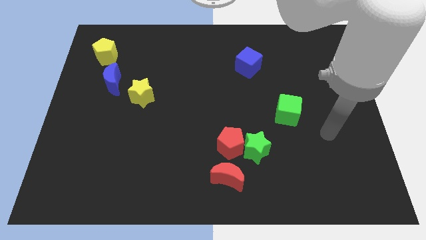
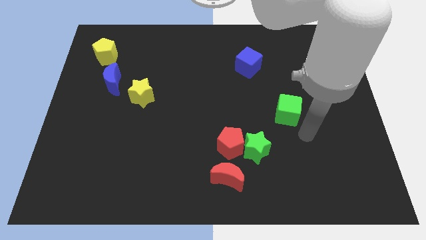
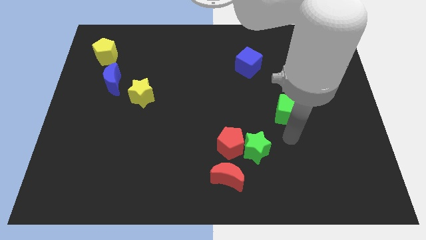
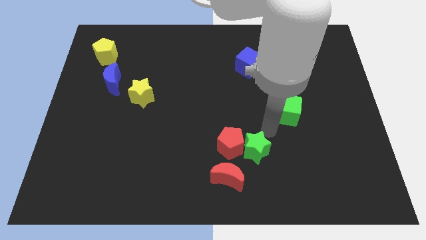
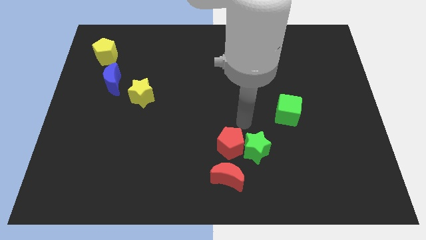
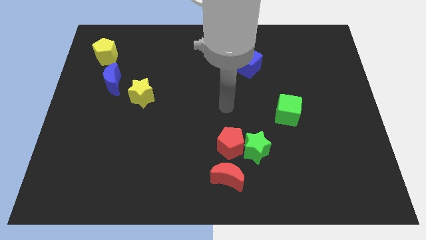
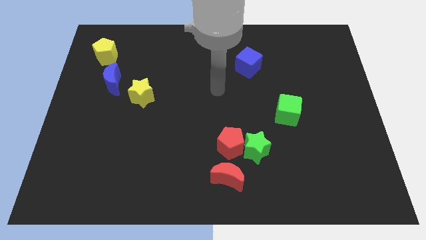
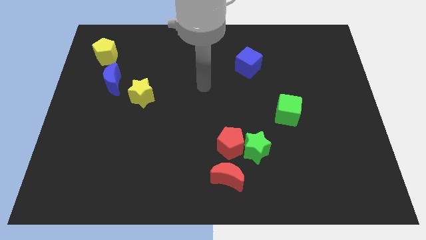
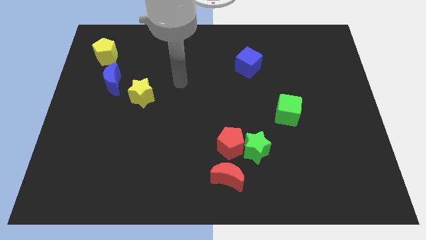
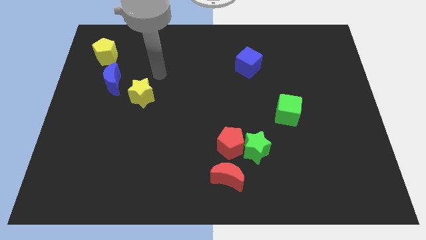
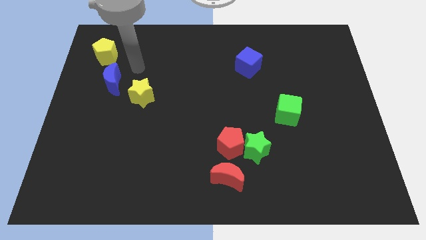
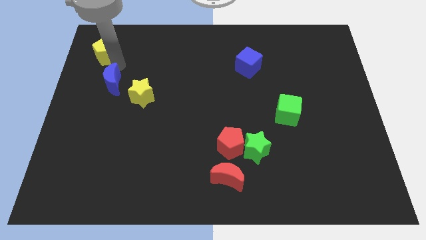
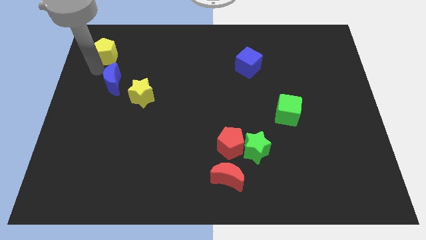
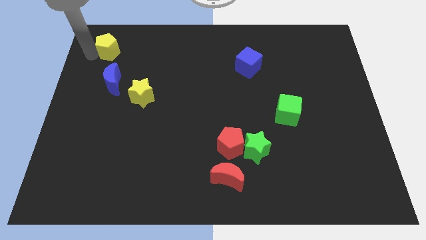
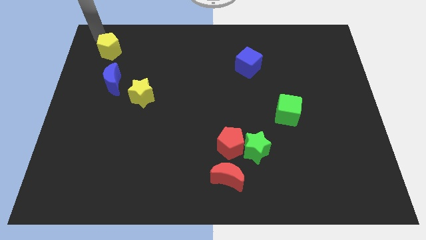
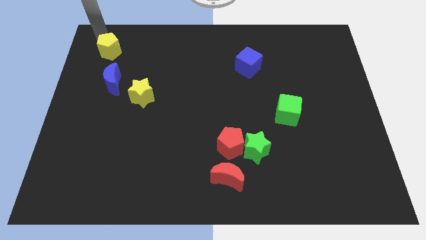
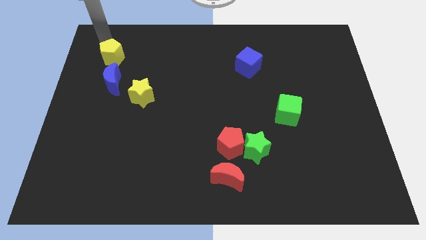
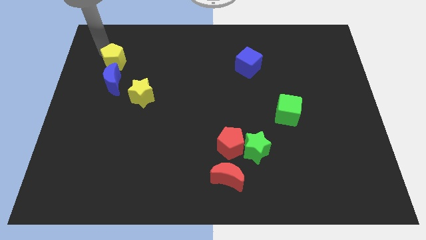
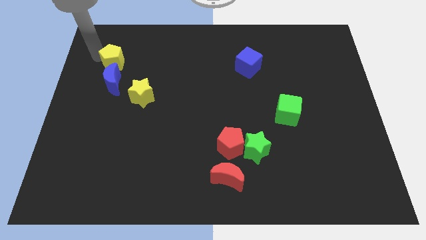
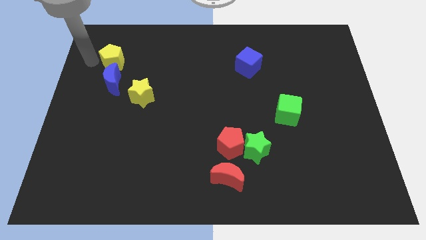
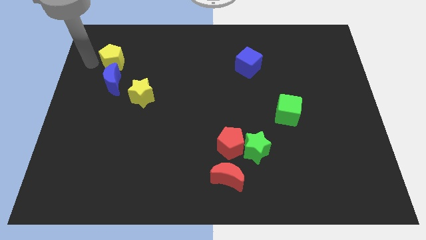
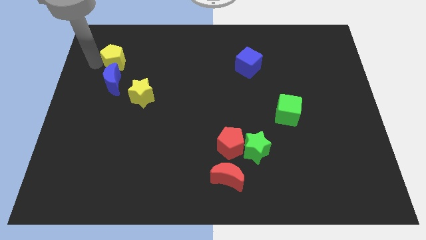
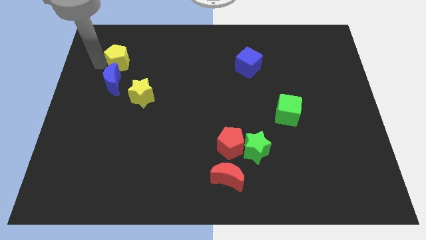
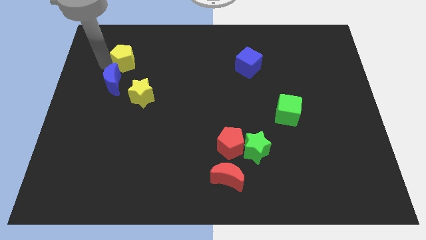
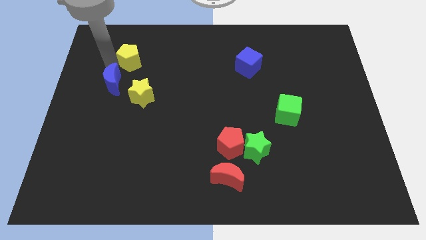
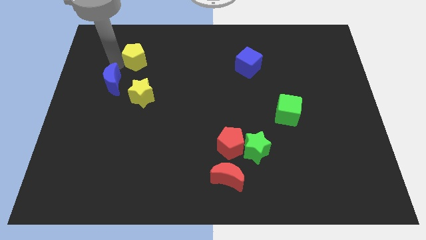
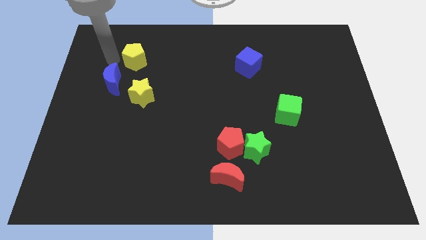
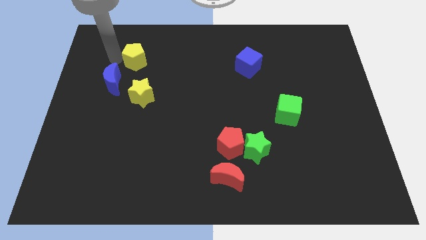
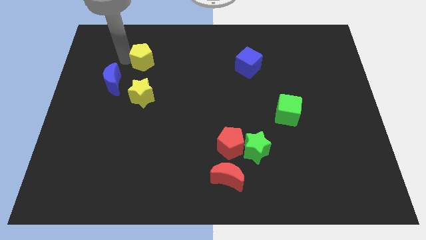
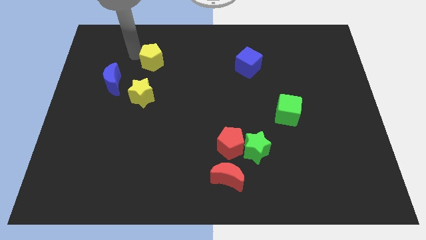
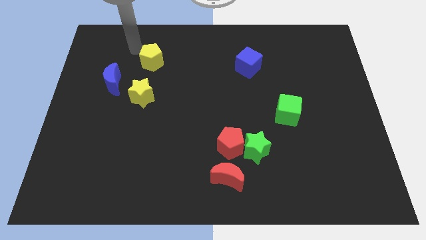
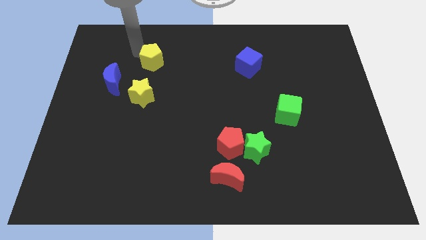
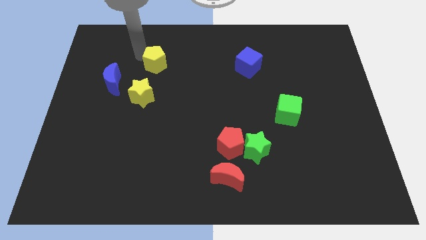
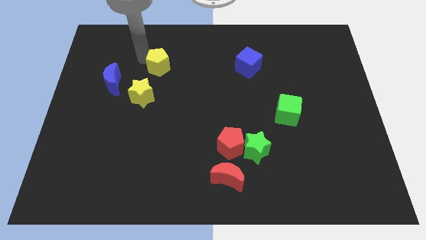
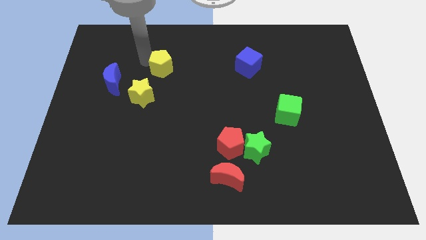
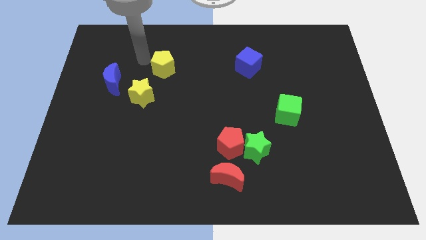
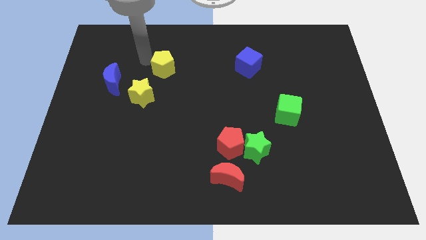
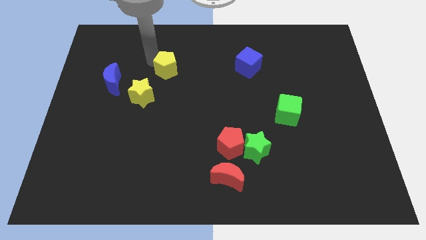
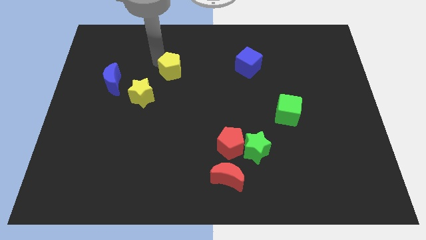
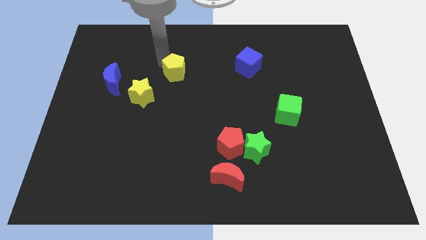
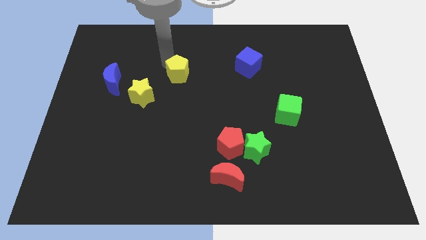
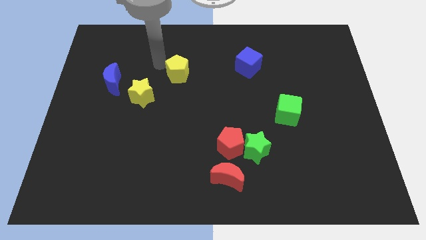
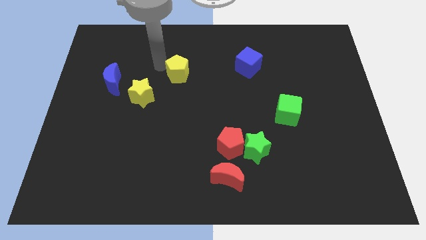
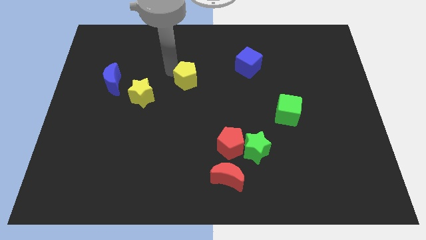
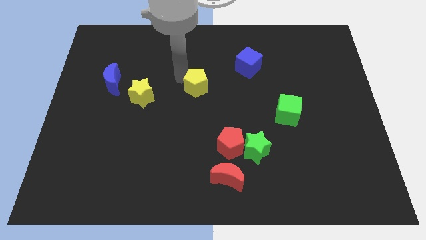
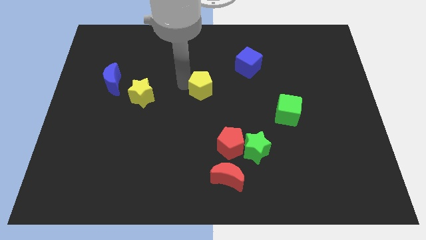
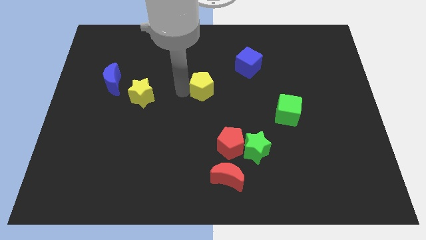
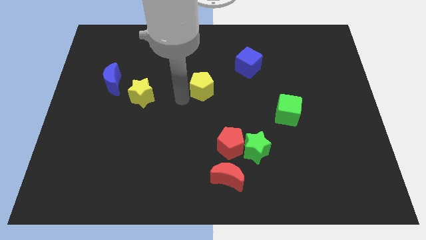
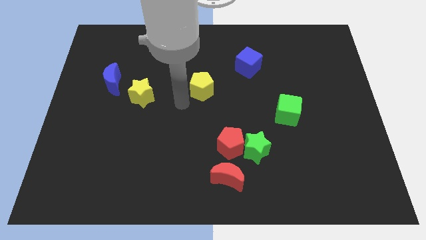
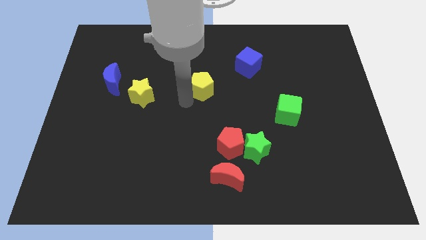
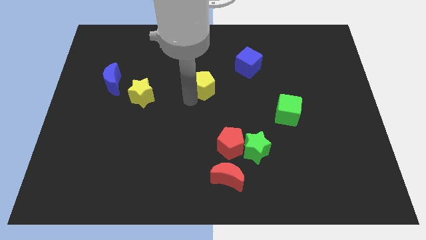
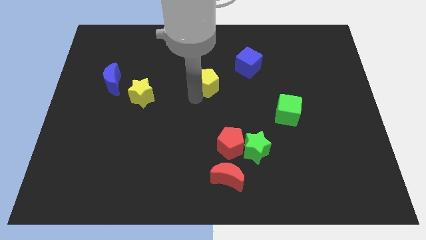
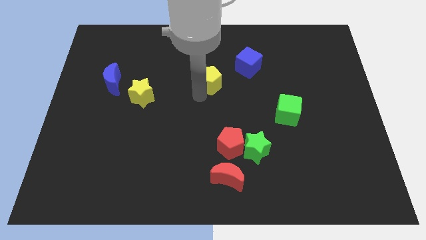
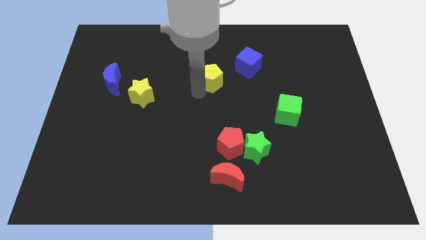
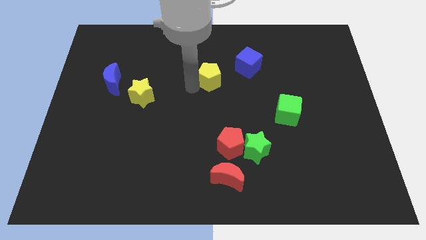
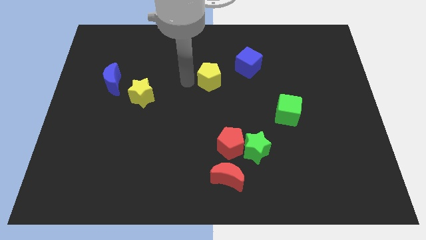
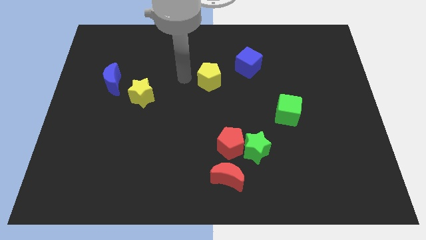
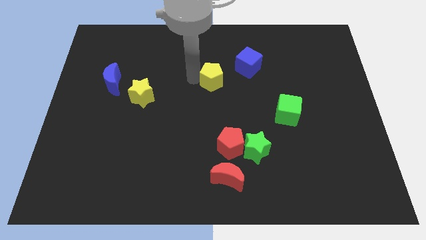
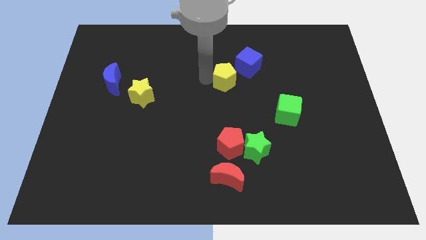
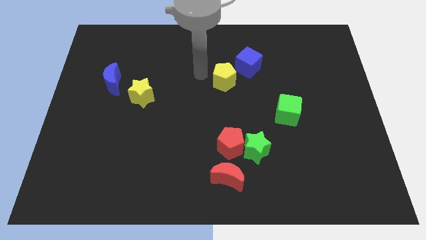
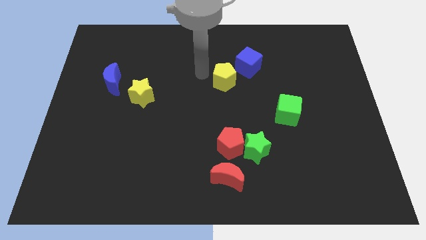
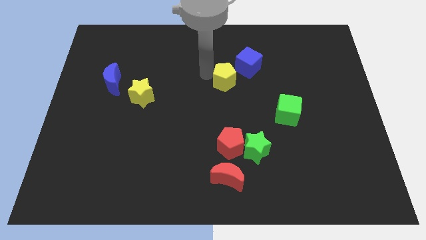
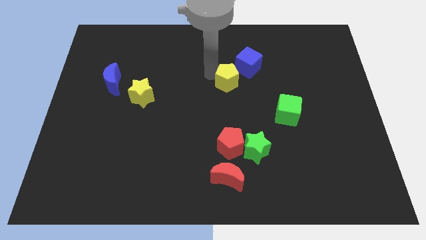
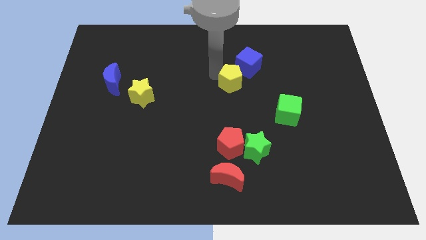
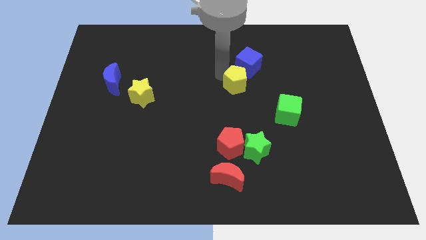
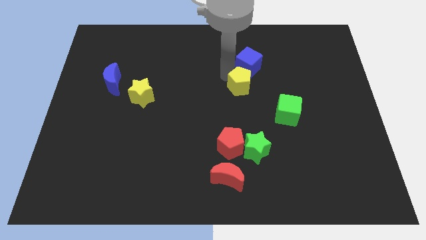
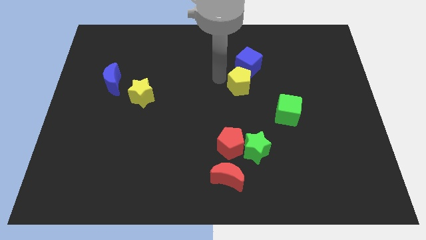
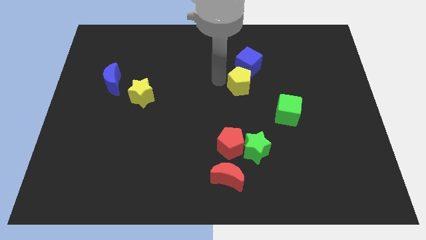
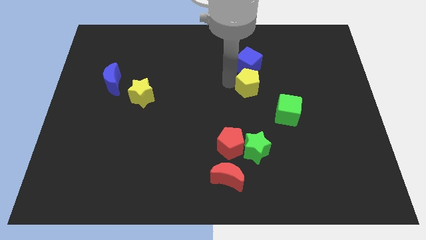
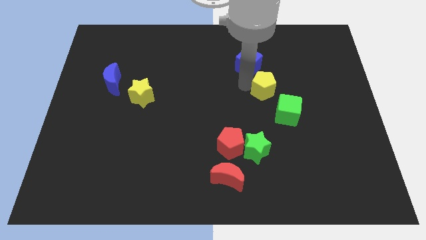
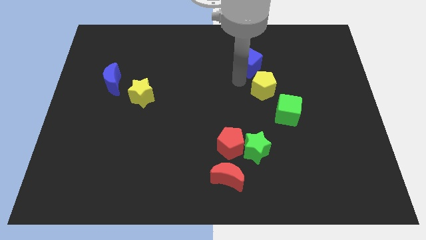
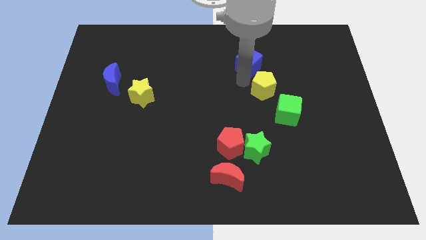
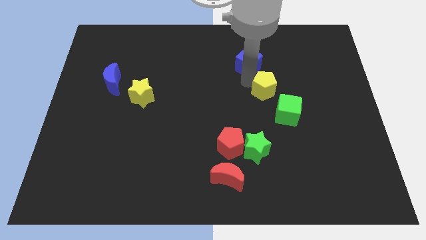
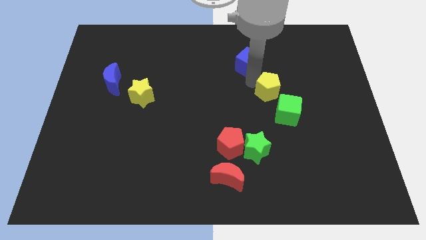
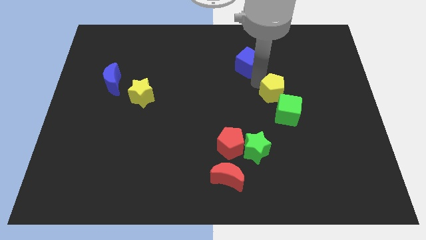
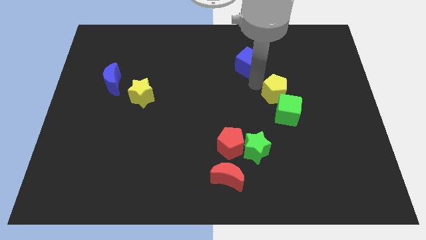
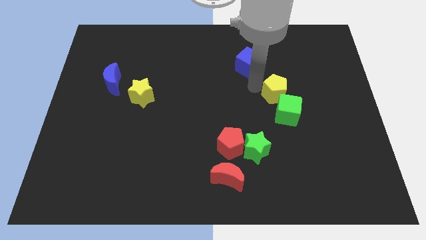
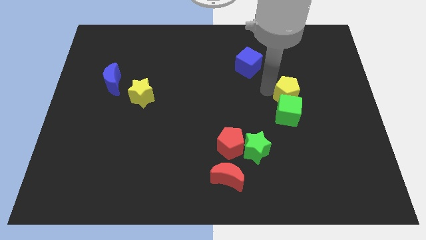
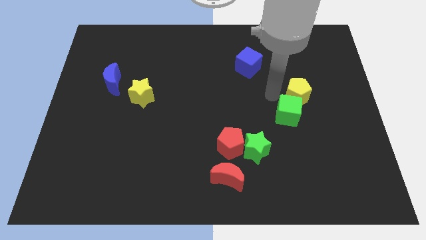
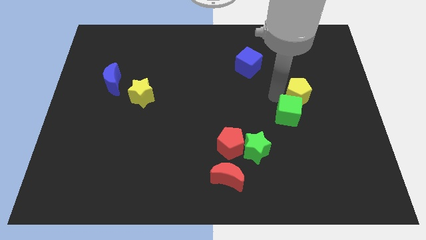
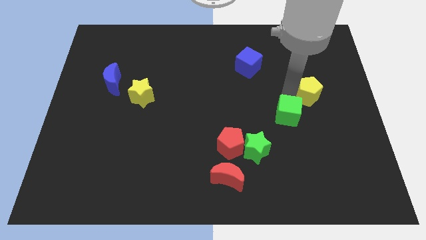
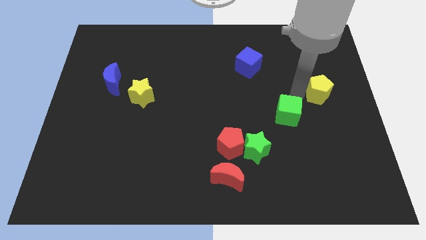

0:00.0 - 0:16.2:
move the yellow pentagon to the right side
